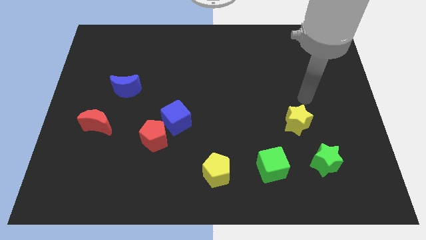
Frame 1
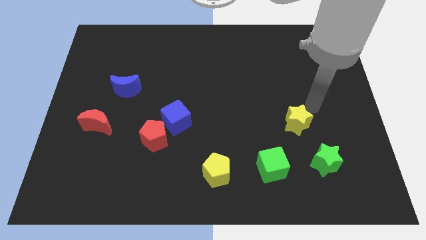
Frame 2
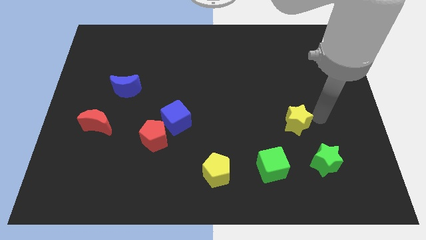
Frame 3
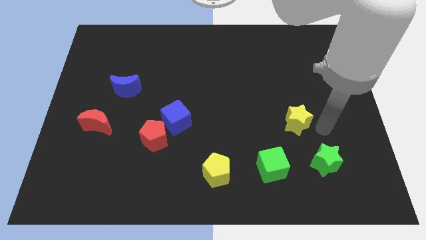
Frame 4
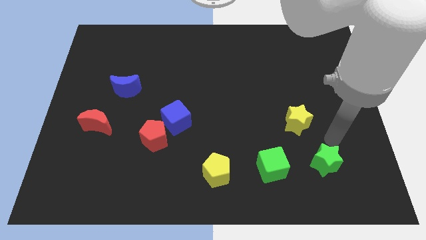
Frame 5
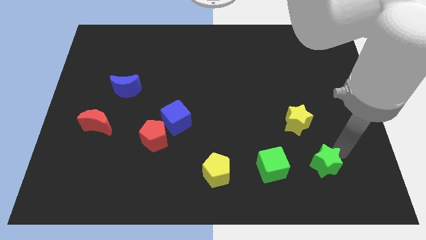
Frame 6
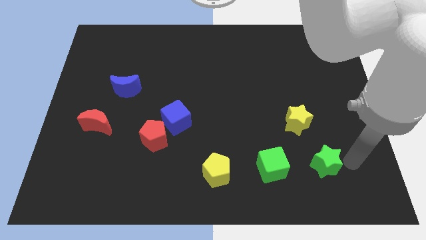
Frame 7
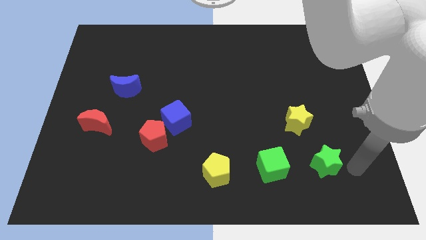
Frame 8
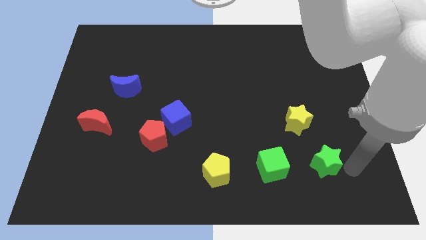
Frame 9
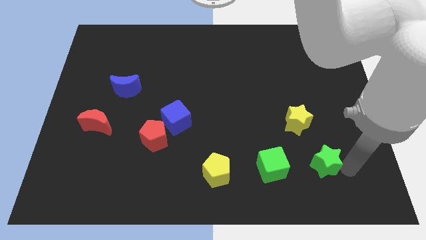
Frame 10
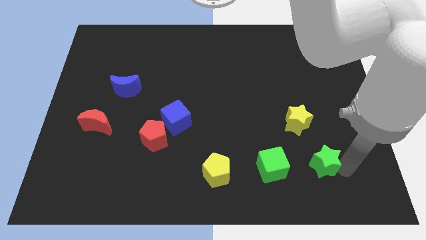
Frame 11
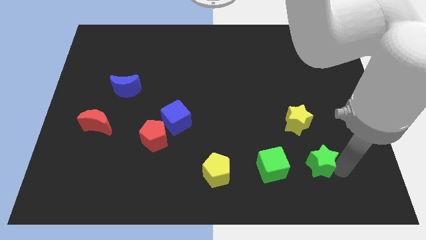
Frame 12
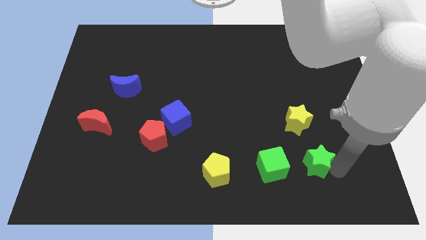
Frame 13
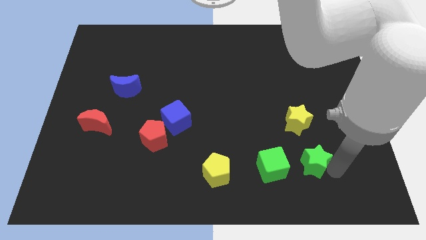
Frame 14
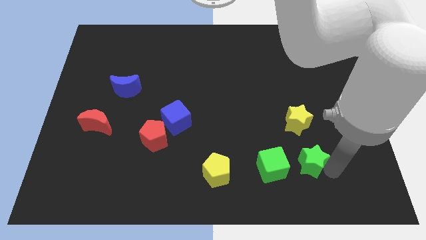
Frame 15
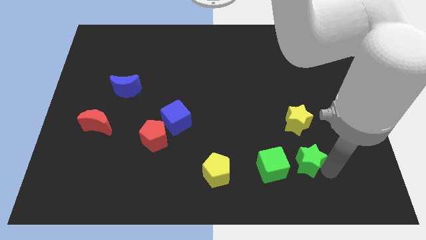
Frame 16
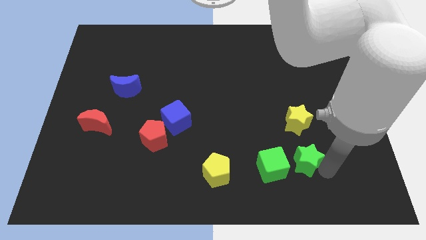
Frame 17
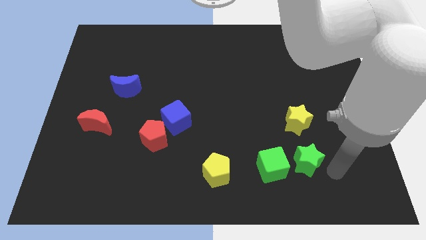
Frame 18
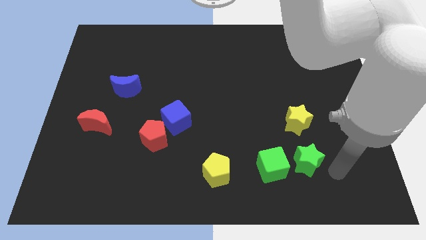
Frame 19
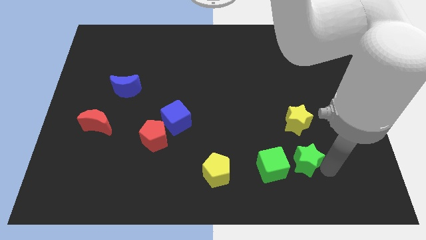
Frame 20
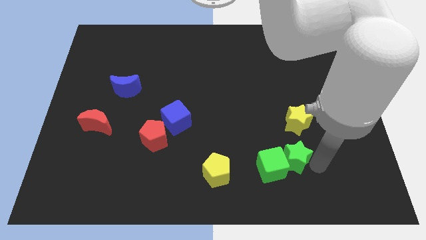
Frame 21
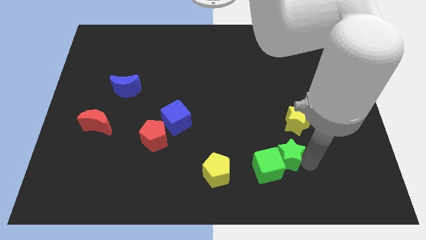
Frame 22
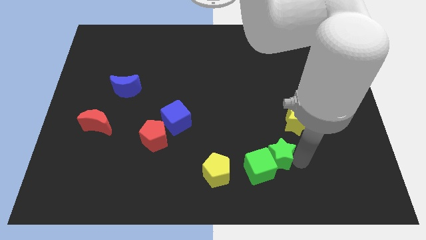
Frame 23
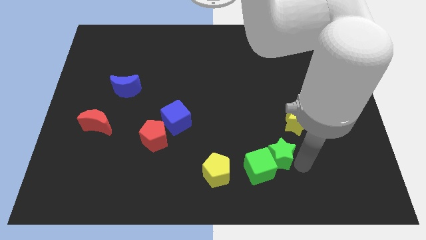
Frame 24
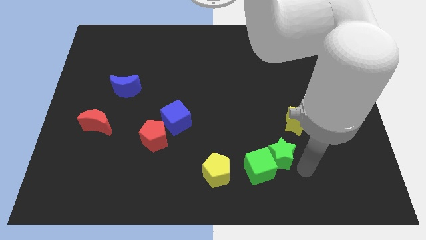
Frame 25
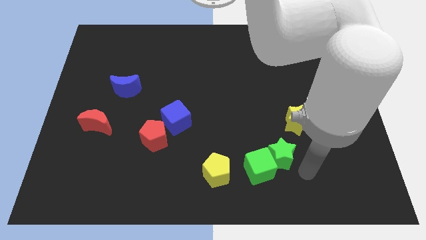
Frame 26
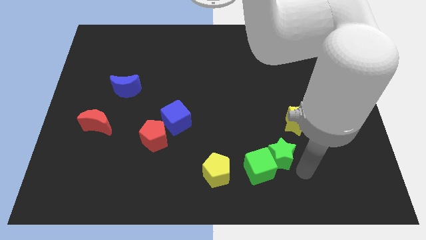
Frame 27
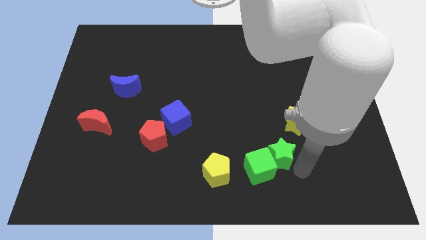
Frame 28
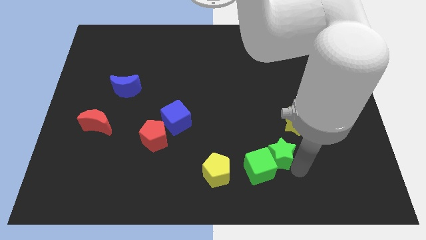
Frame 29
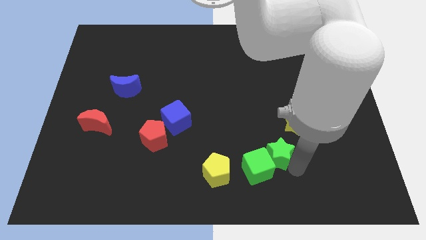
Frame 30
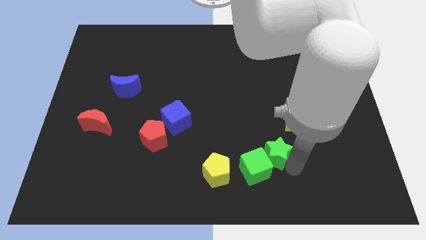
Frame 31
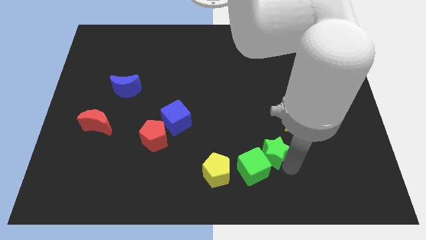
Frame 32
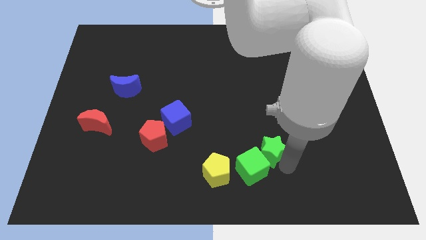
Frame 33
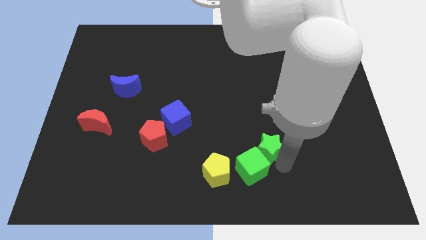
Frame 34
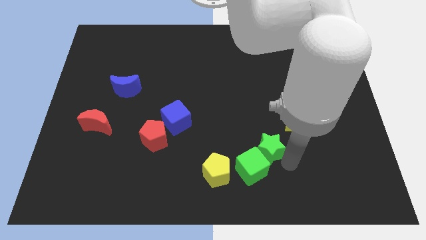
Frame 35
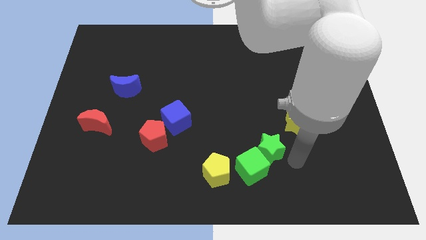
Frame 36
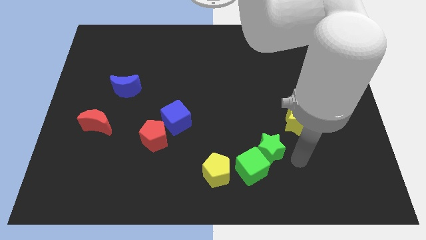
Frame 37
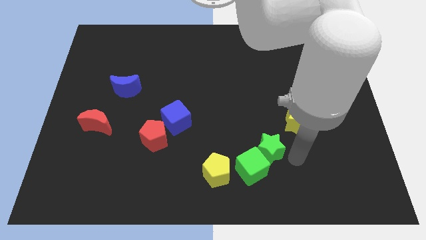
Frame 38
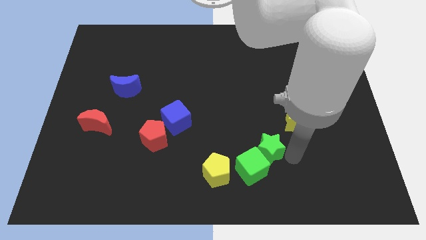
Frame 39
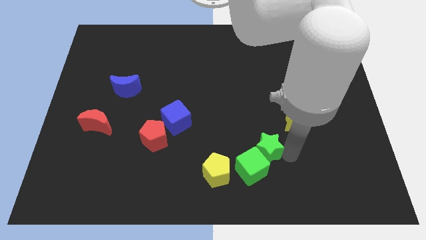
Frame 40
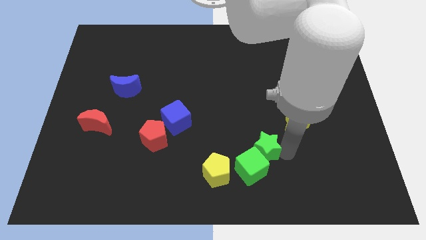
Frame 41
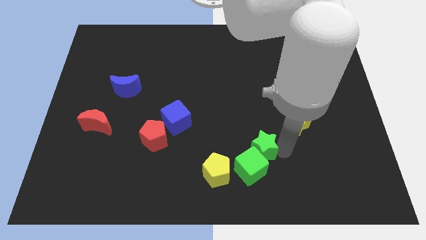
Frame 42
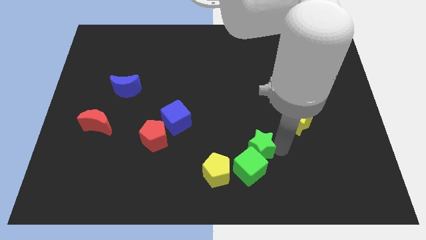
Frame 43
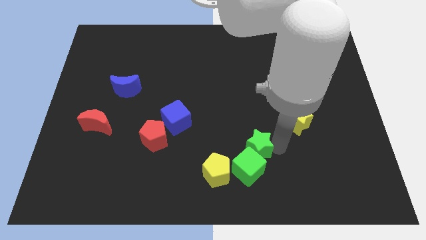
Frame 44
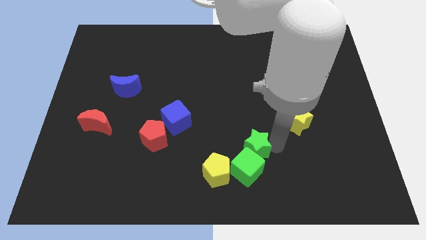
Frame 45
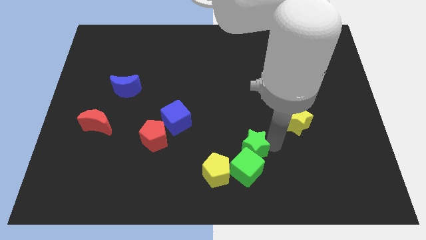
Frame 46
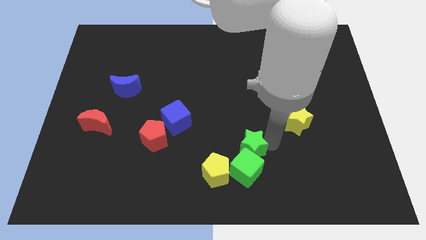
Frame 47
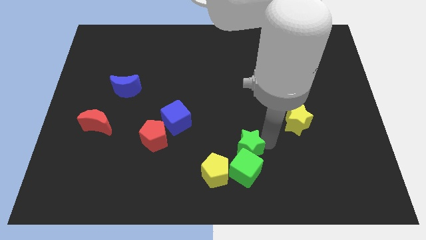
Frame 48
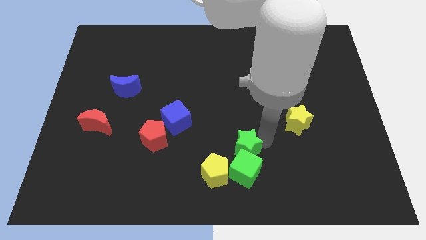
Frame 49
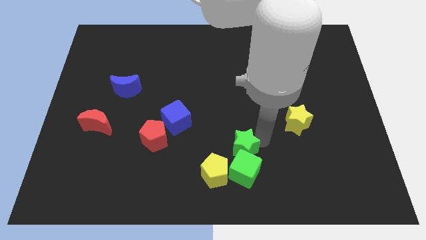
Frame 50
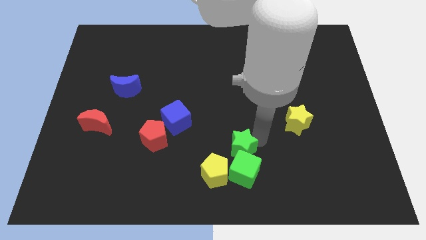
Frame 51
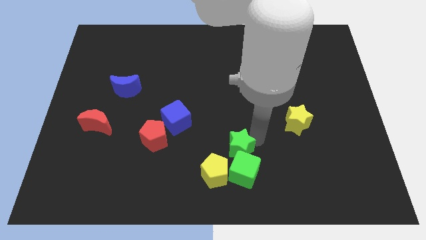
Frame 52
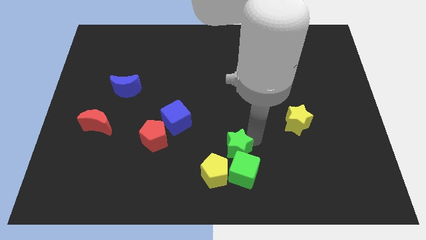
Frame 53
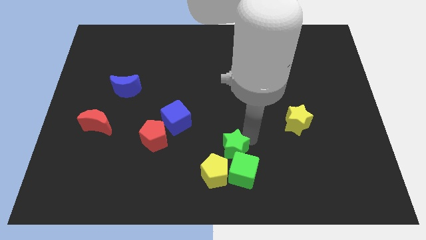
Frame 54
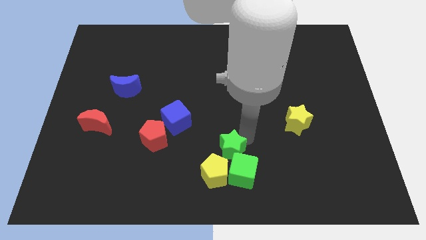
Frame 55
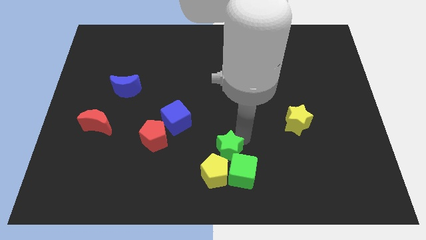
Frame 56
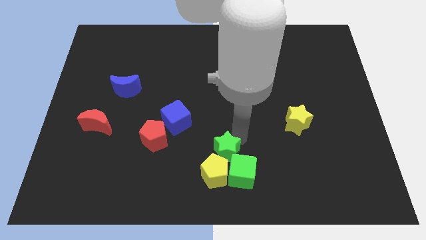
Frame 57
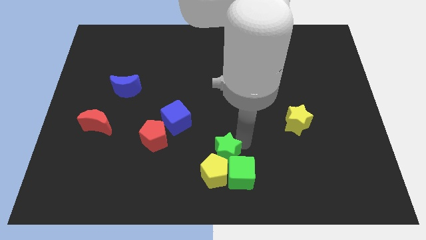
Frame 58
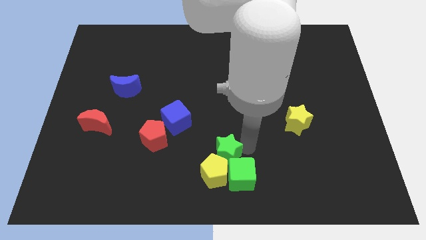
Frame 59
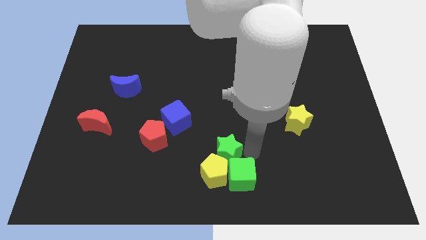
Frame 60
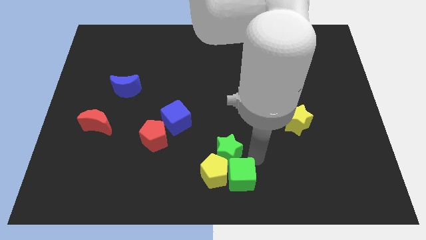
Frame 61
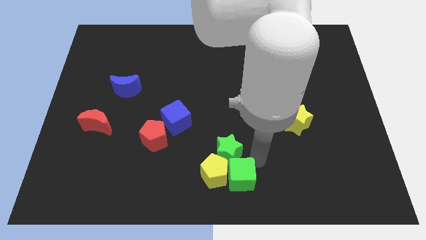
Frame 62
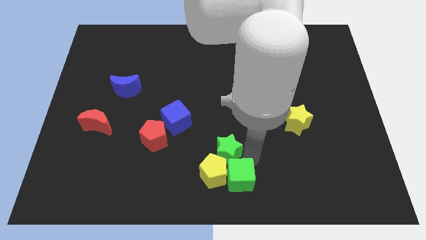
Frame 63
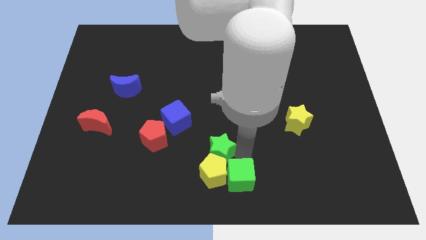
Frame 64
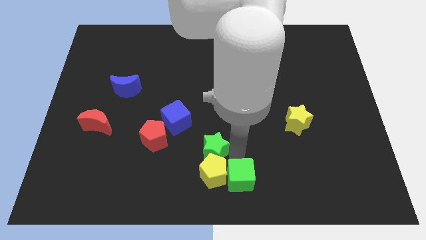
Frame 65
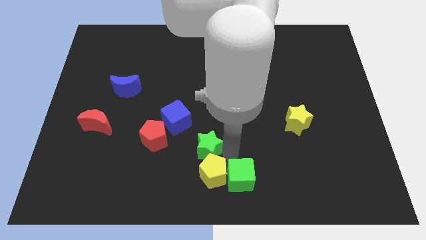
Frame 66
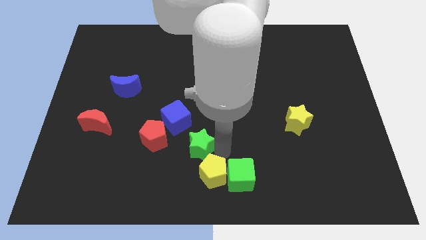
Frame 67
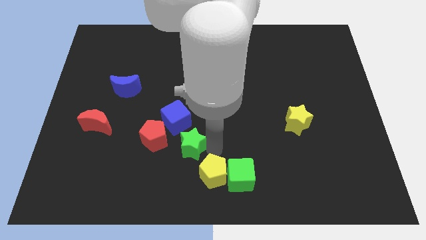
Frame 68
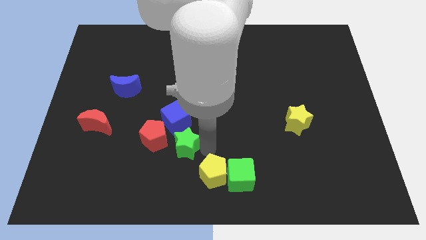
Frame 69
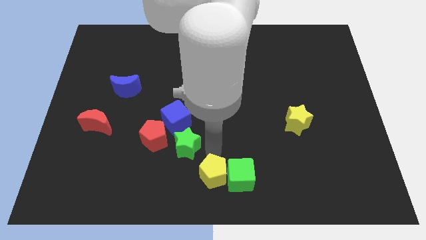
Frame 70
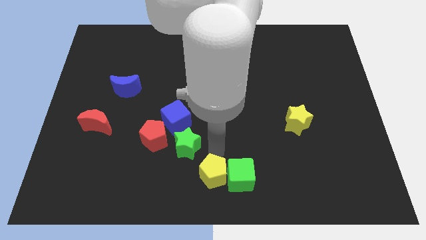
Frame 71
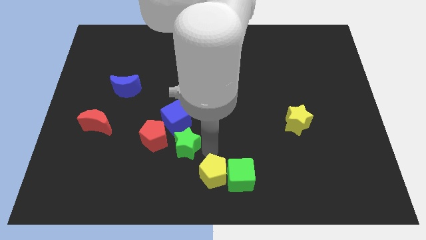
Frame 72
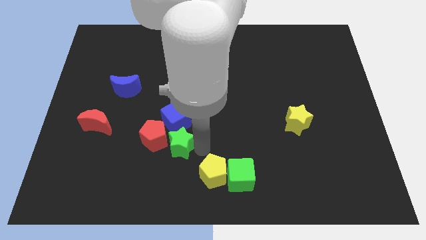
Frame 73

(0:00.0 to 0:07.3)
push the green star next to the red pentagon
